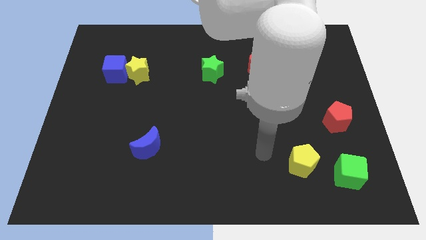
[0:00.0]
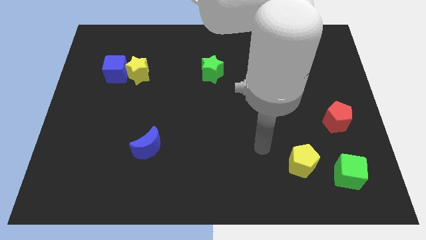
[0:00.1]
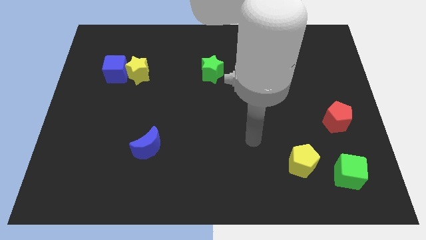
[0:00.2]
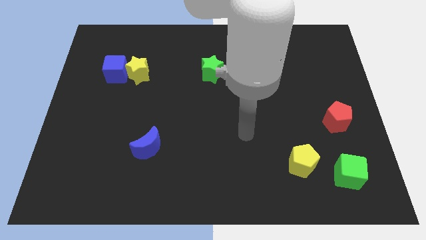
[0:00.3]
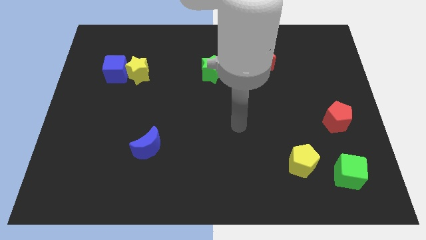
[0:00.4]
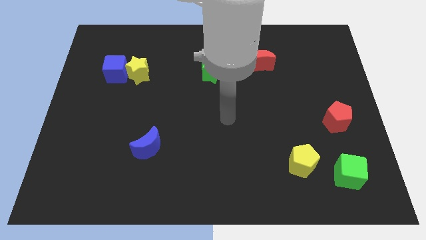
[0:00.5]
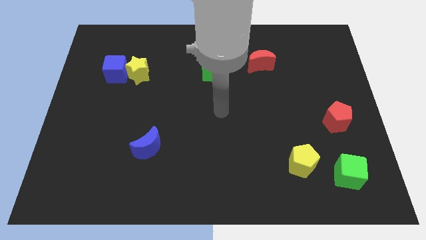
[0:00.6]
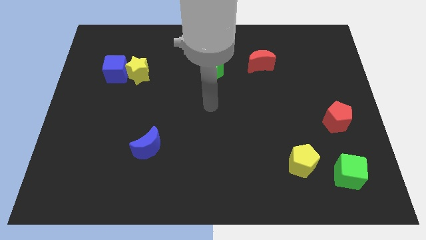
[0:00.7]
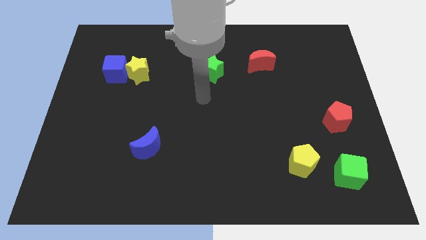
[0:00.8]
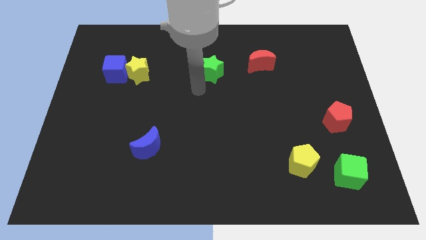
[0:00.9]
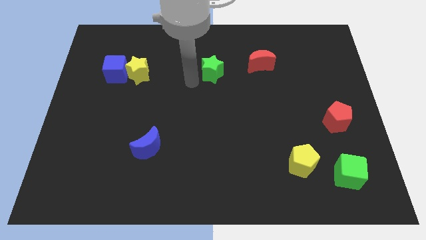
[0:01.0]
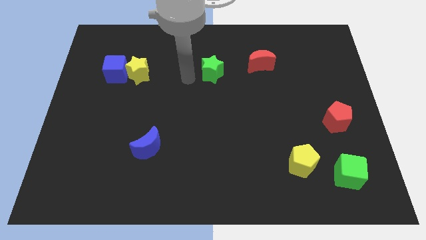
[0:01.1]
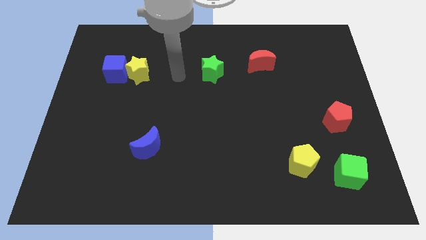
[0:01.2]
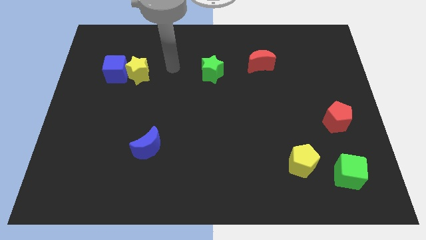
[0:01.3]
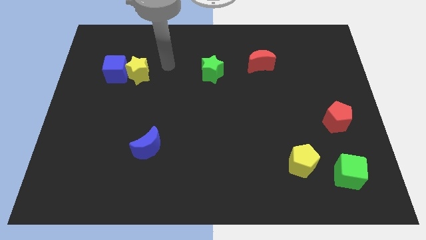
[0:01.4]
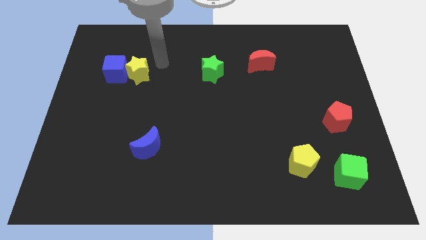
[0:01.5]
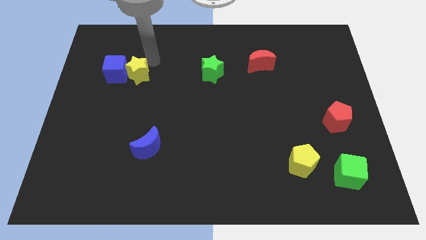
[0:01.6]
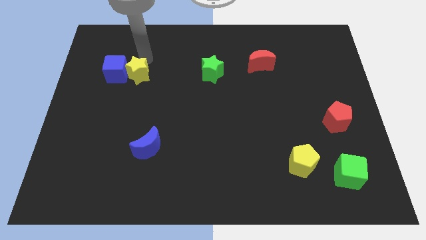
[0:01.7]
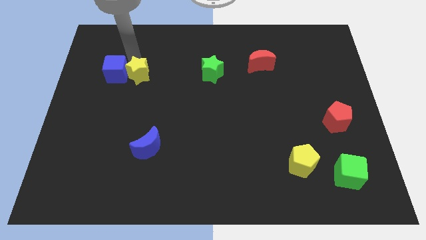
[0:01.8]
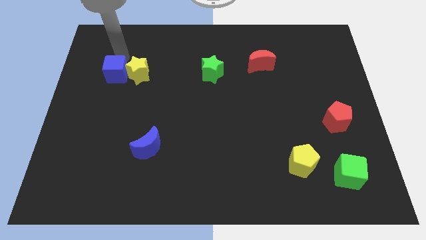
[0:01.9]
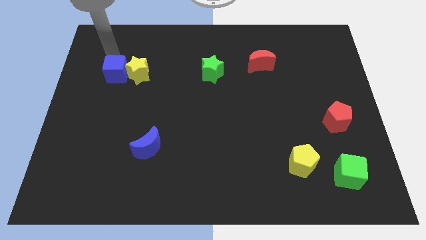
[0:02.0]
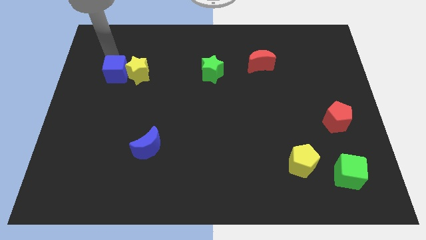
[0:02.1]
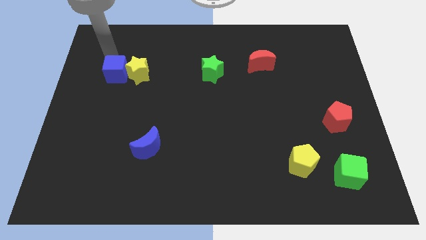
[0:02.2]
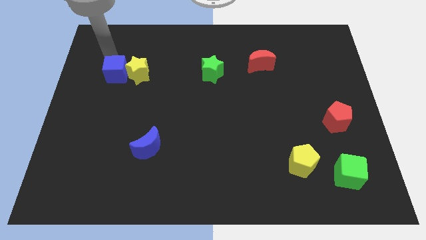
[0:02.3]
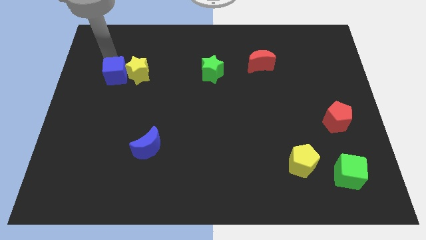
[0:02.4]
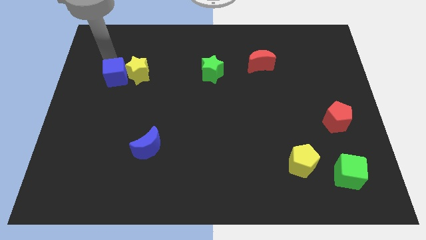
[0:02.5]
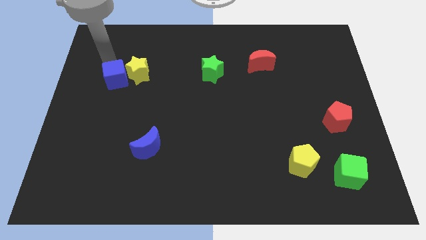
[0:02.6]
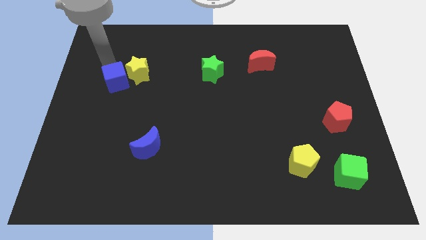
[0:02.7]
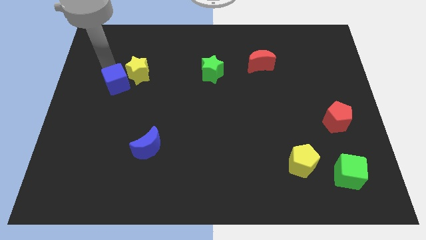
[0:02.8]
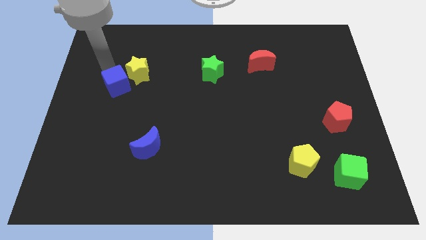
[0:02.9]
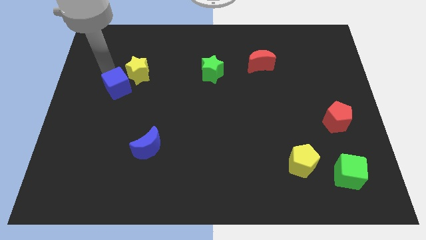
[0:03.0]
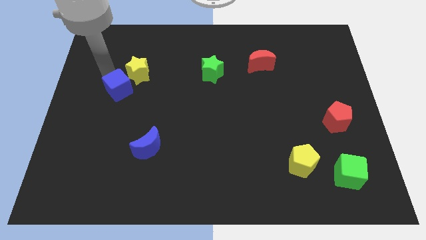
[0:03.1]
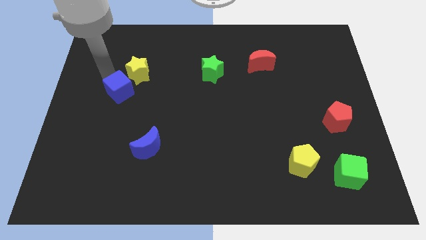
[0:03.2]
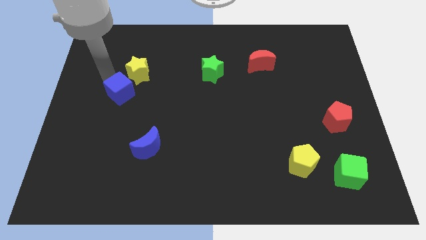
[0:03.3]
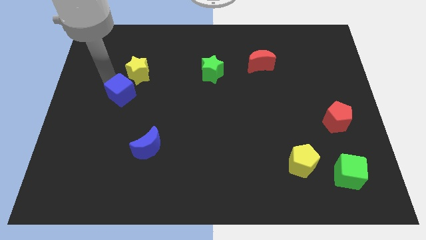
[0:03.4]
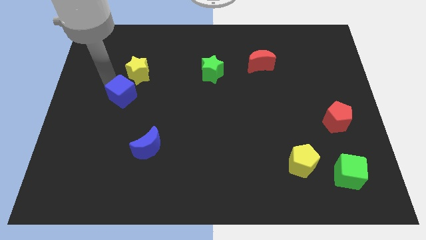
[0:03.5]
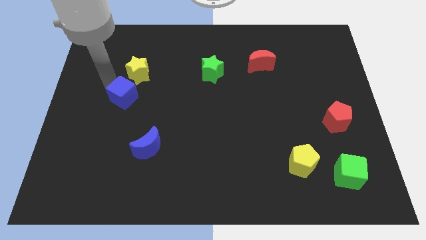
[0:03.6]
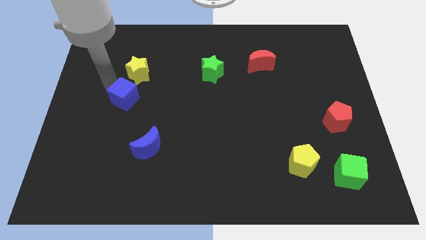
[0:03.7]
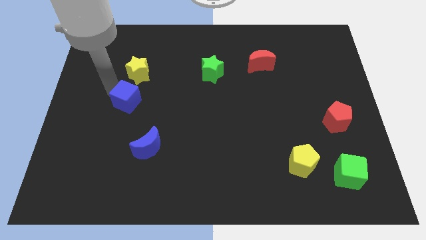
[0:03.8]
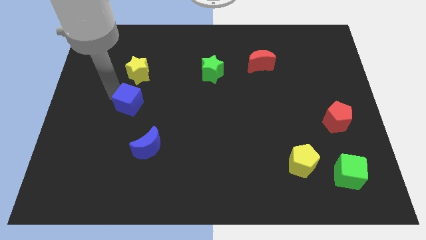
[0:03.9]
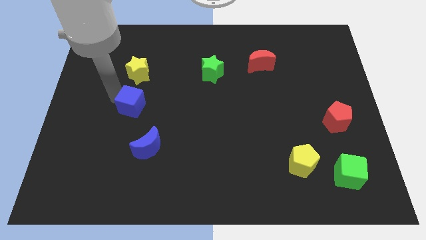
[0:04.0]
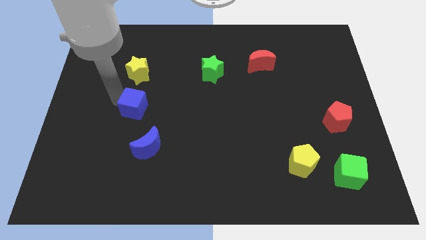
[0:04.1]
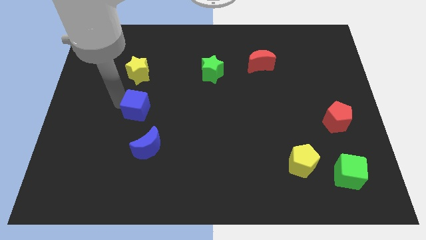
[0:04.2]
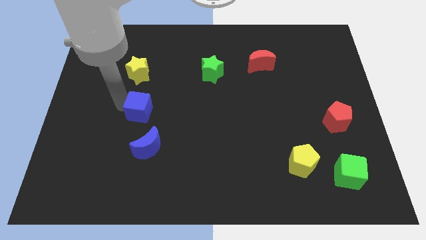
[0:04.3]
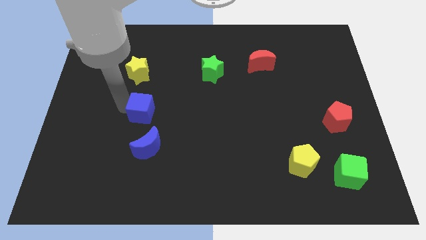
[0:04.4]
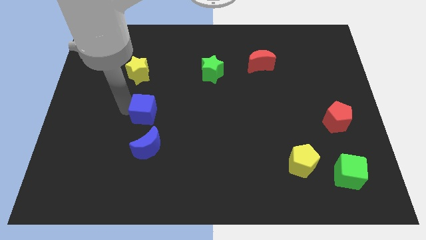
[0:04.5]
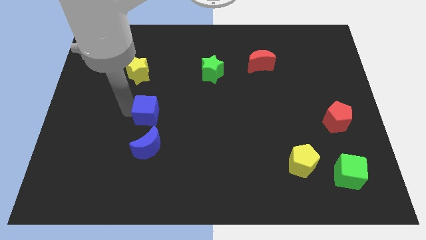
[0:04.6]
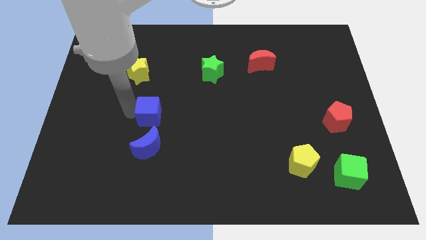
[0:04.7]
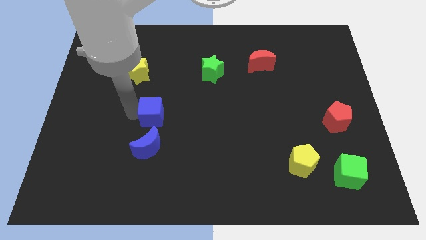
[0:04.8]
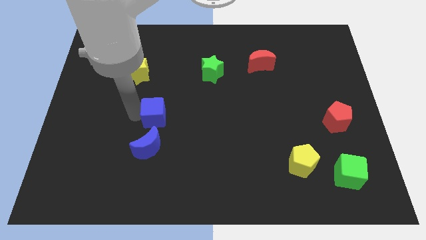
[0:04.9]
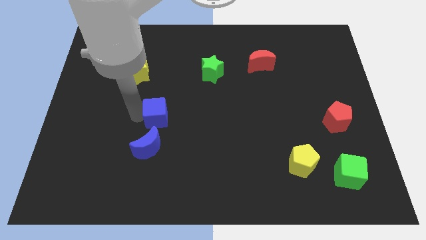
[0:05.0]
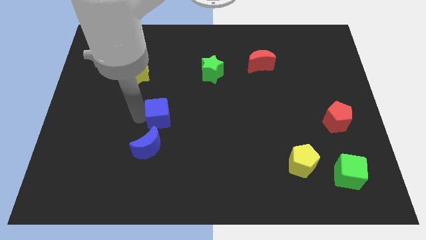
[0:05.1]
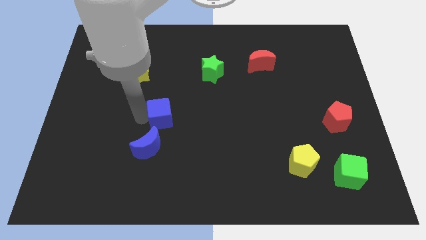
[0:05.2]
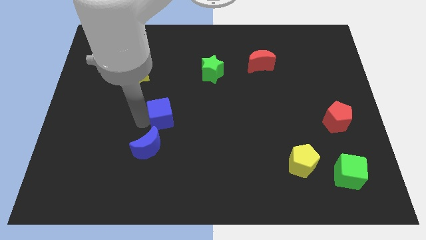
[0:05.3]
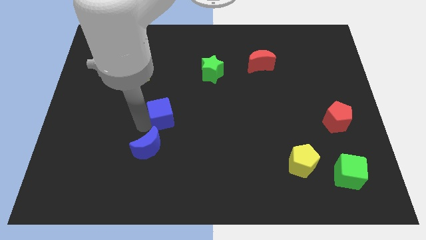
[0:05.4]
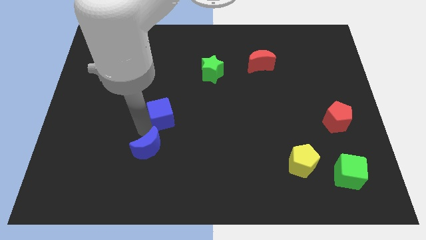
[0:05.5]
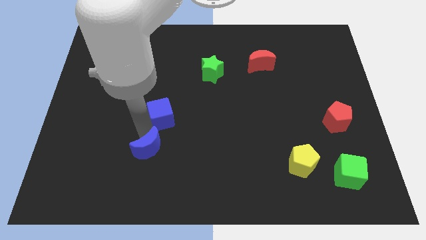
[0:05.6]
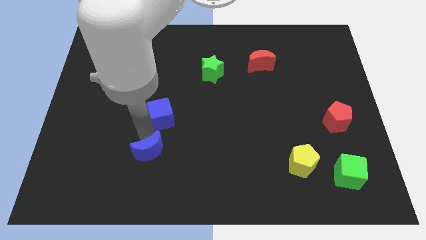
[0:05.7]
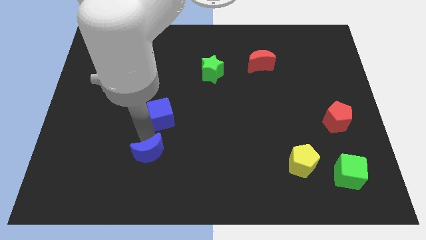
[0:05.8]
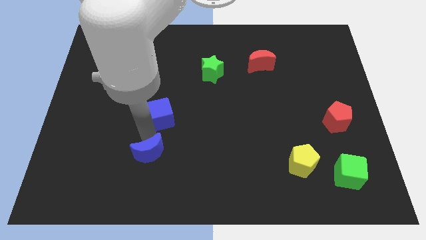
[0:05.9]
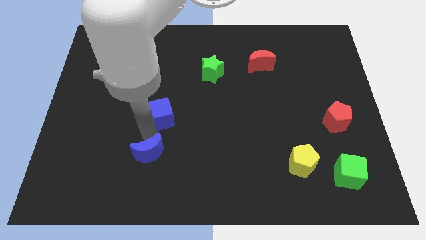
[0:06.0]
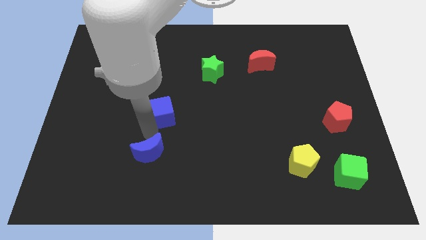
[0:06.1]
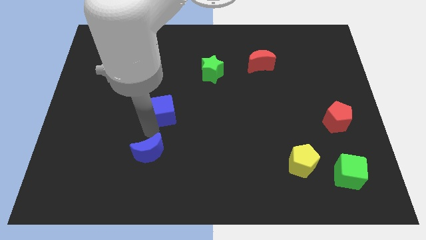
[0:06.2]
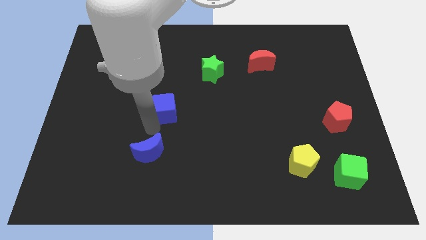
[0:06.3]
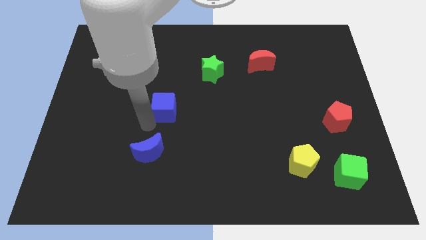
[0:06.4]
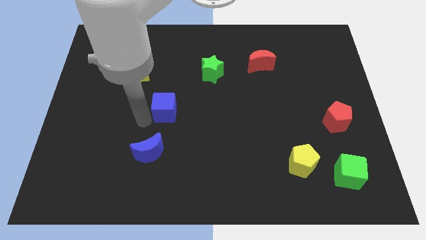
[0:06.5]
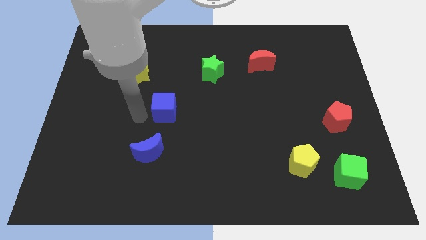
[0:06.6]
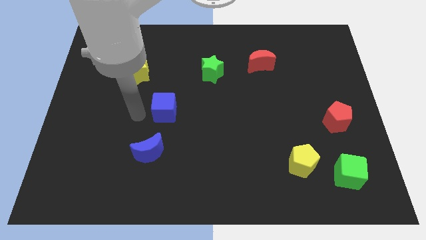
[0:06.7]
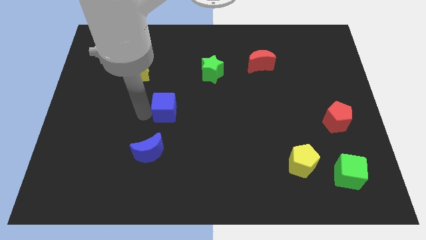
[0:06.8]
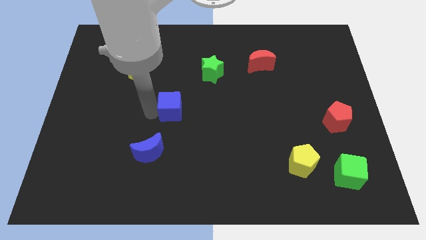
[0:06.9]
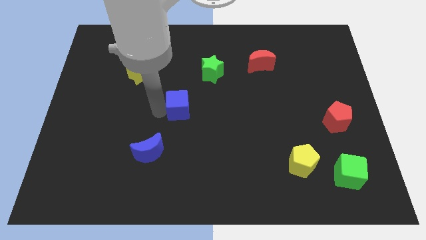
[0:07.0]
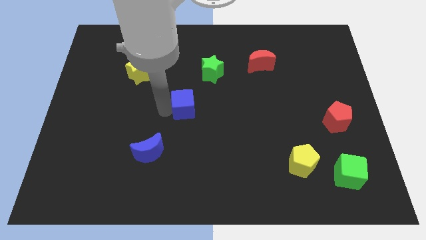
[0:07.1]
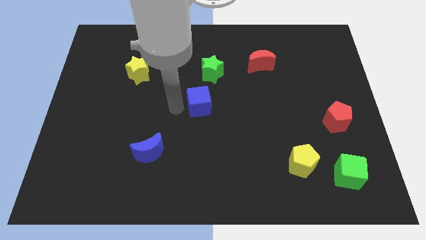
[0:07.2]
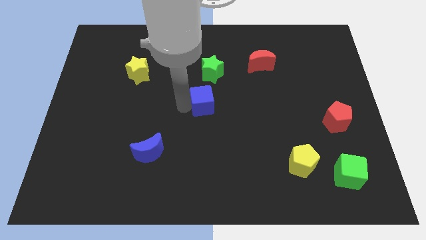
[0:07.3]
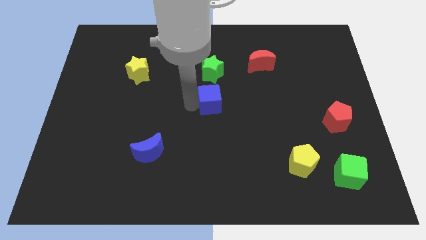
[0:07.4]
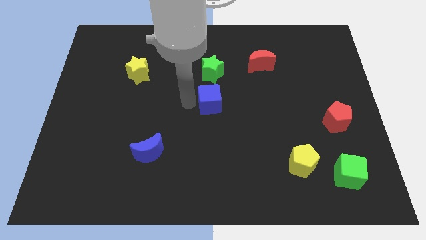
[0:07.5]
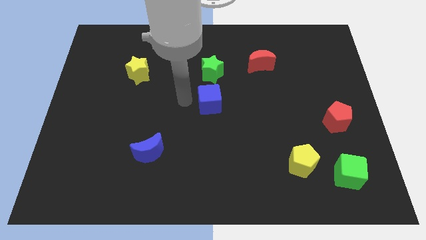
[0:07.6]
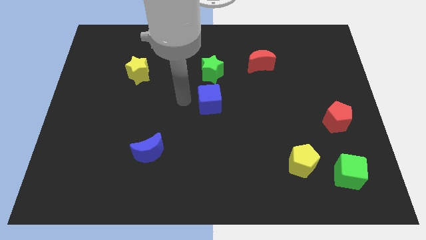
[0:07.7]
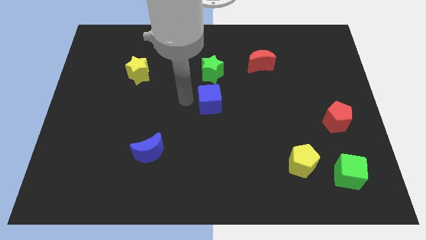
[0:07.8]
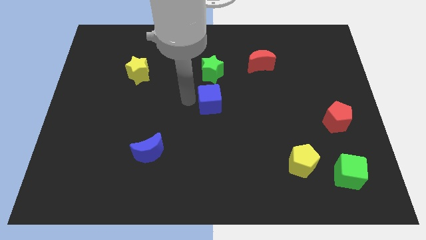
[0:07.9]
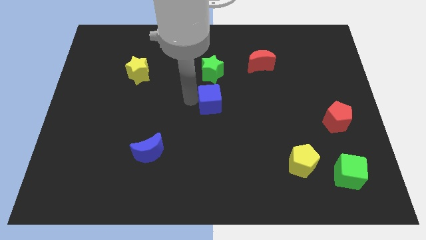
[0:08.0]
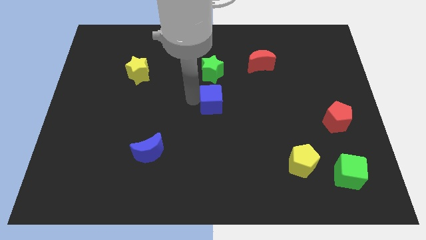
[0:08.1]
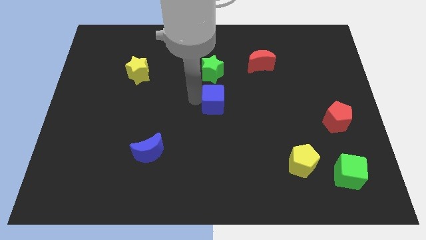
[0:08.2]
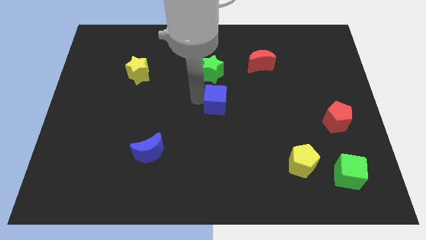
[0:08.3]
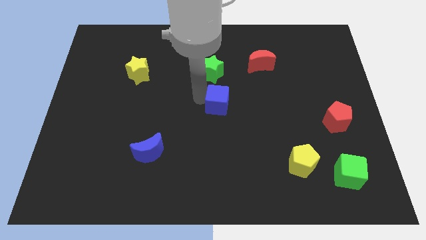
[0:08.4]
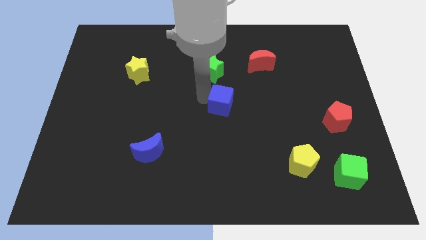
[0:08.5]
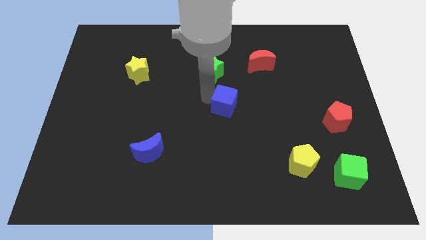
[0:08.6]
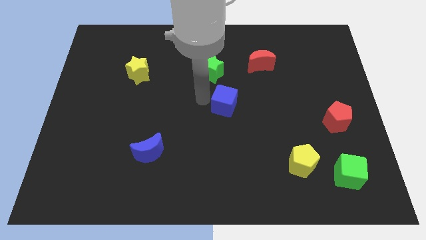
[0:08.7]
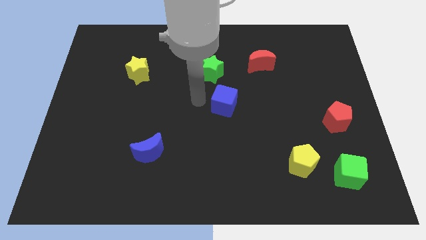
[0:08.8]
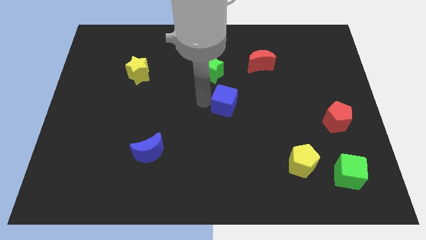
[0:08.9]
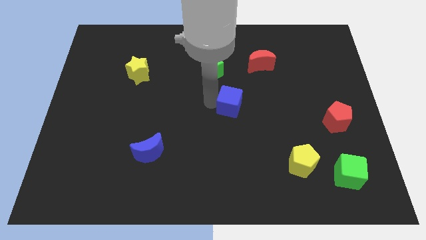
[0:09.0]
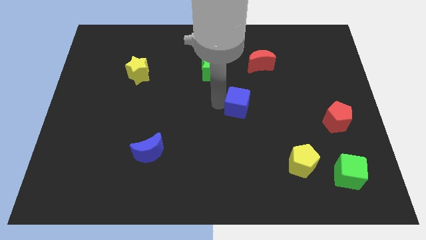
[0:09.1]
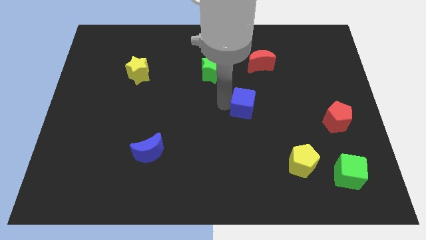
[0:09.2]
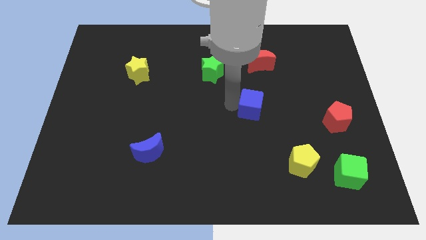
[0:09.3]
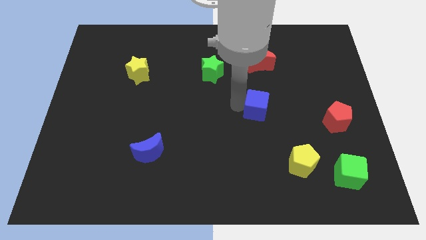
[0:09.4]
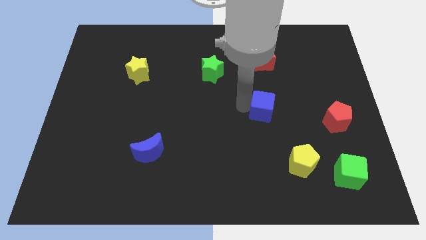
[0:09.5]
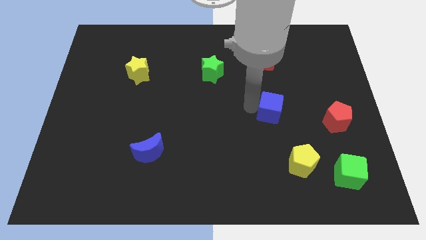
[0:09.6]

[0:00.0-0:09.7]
put the blue cube to the left side of the red pentagon
